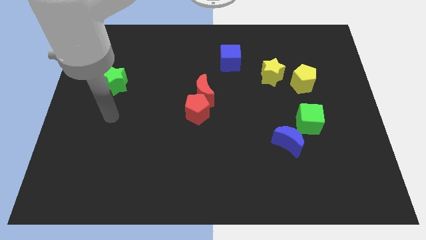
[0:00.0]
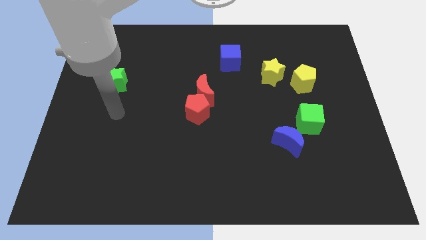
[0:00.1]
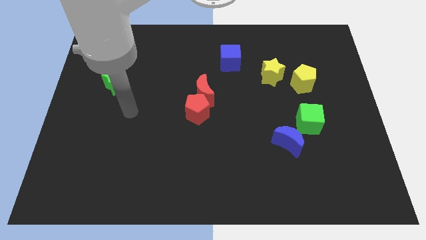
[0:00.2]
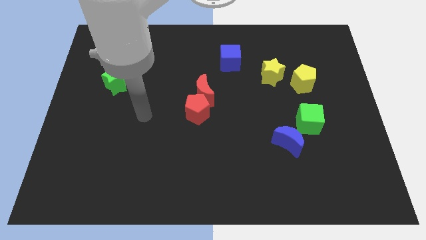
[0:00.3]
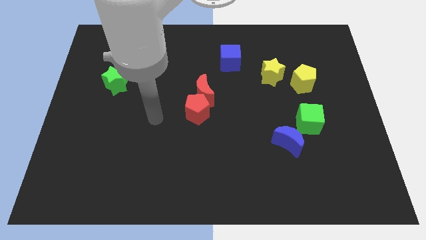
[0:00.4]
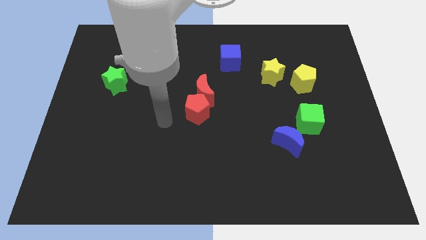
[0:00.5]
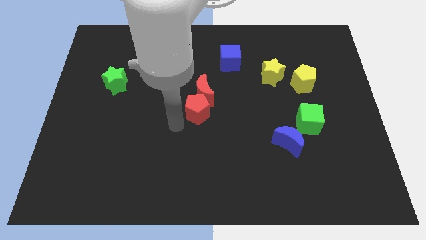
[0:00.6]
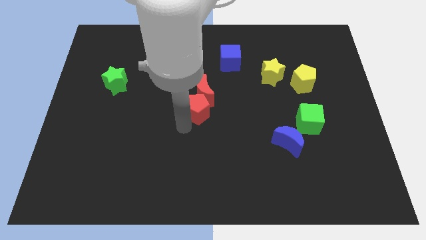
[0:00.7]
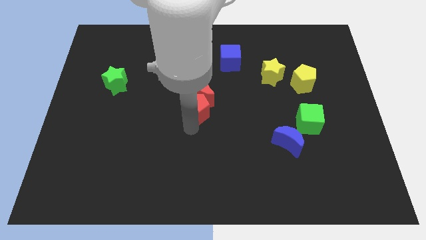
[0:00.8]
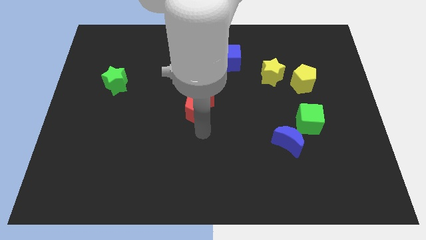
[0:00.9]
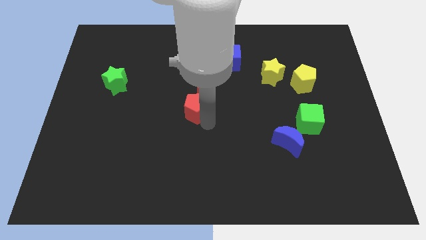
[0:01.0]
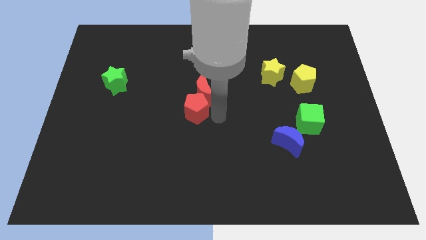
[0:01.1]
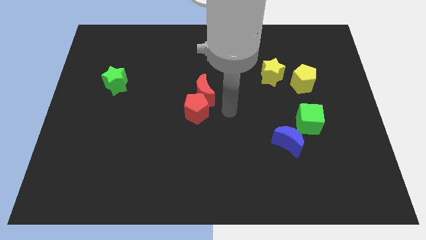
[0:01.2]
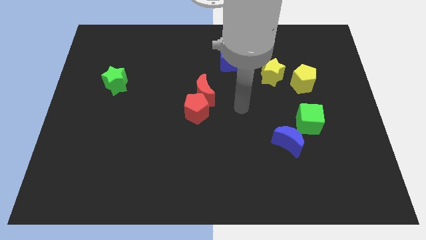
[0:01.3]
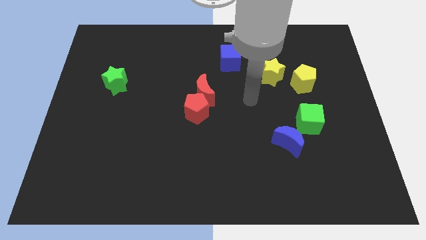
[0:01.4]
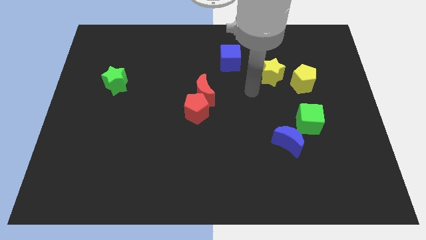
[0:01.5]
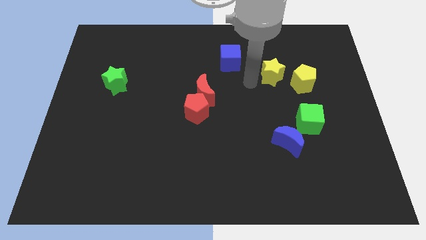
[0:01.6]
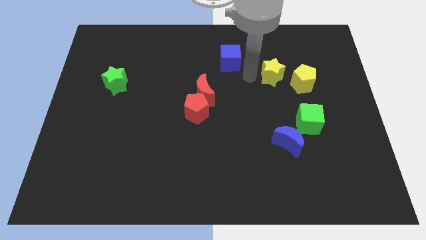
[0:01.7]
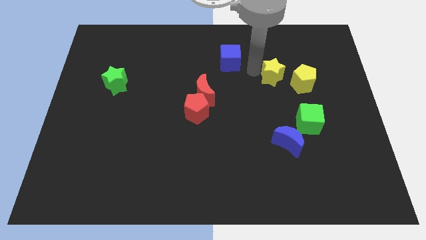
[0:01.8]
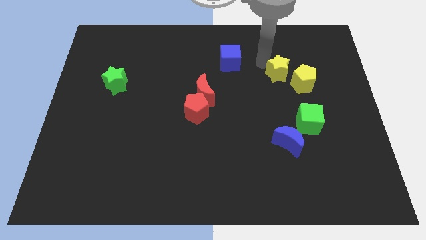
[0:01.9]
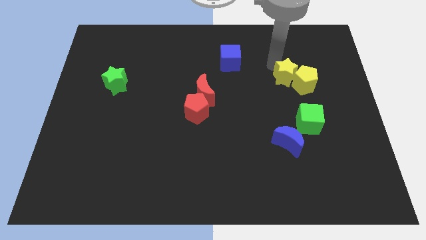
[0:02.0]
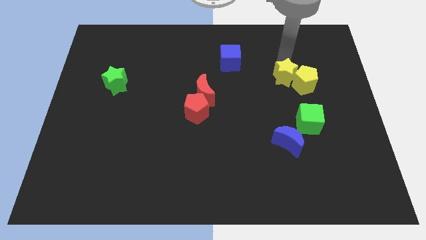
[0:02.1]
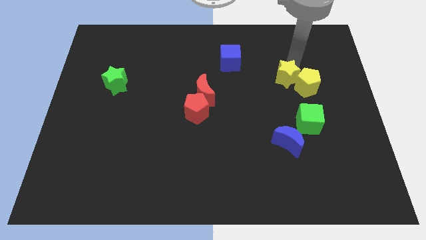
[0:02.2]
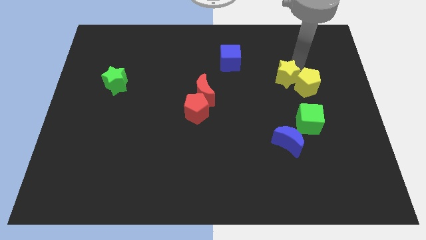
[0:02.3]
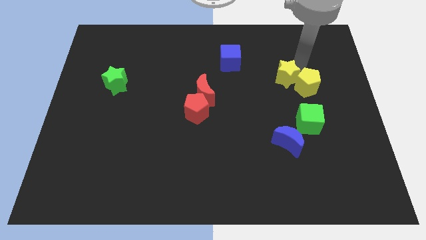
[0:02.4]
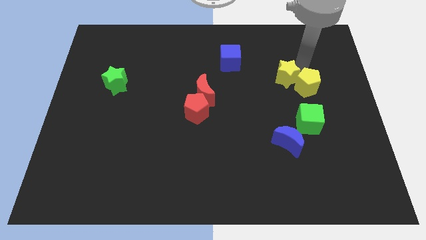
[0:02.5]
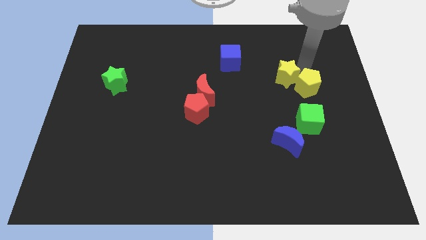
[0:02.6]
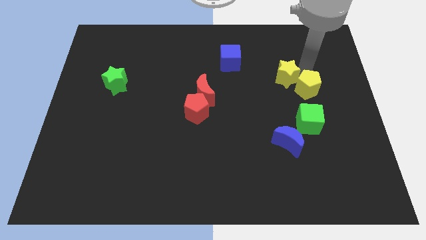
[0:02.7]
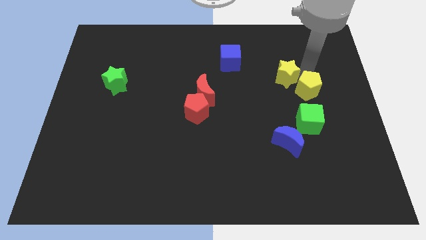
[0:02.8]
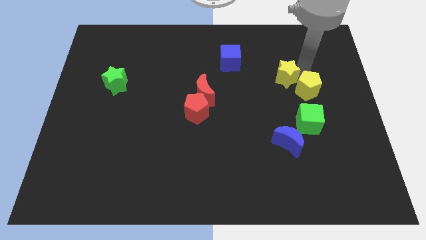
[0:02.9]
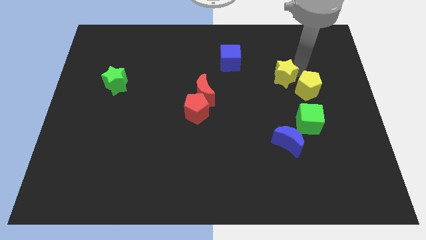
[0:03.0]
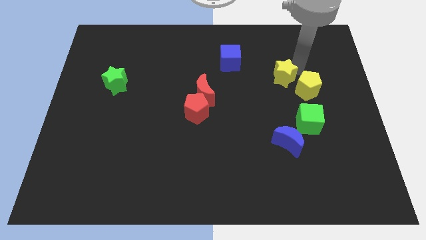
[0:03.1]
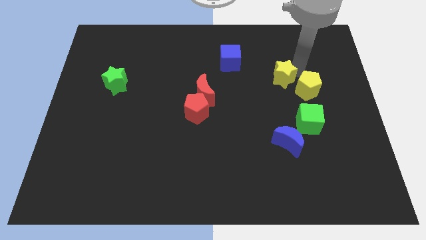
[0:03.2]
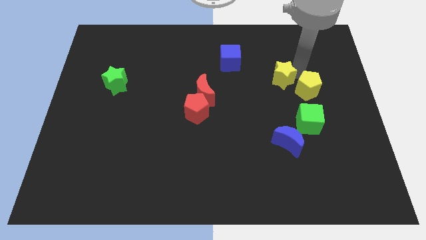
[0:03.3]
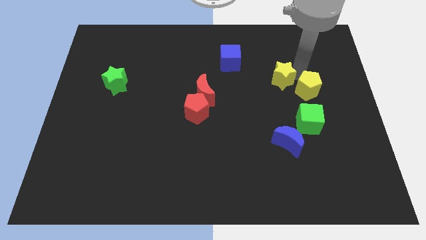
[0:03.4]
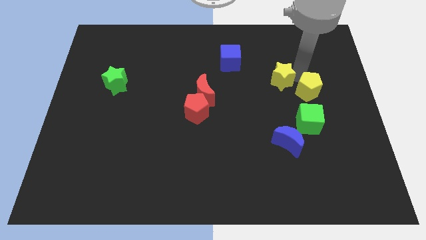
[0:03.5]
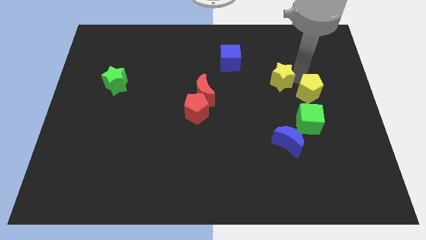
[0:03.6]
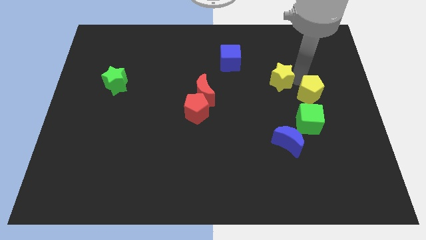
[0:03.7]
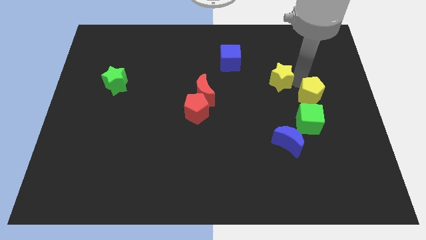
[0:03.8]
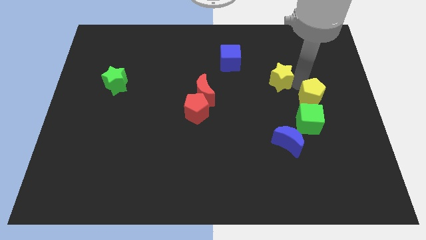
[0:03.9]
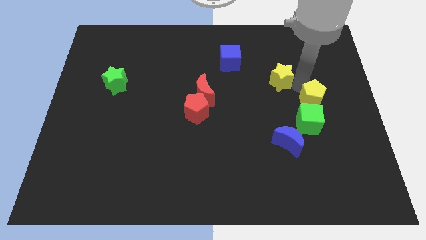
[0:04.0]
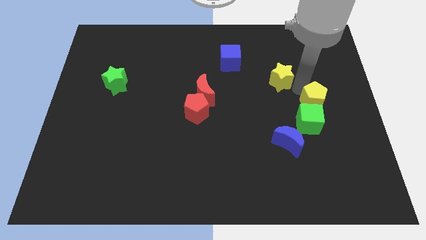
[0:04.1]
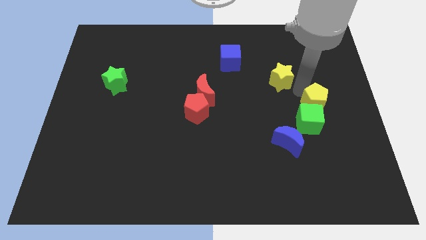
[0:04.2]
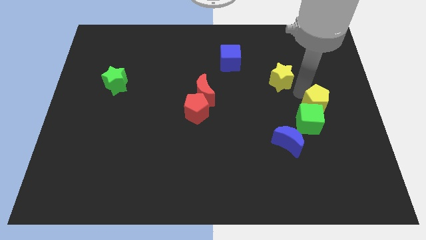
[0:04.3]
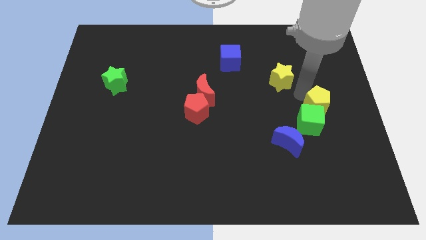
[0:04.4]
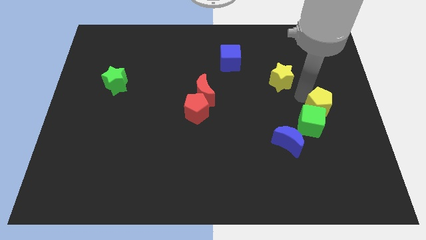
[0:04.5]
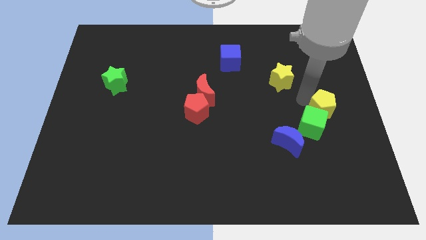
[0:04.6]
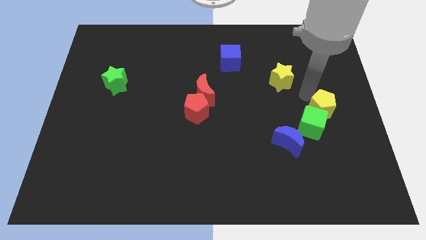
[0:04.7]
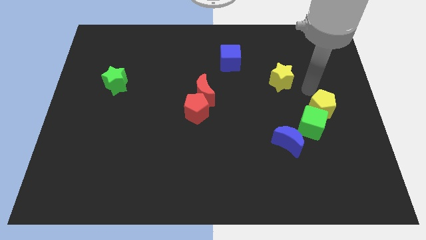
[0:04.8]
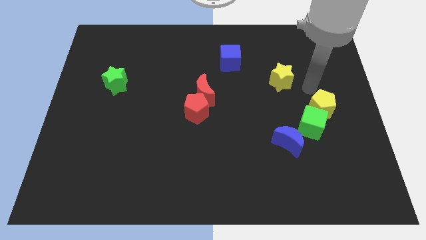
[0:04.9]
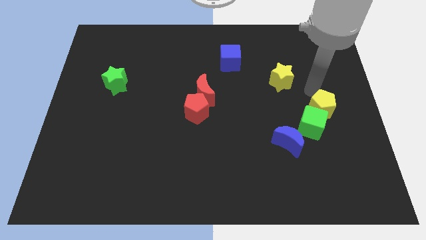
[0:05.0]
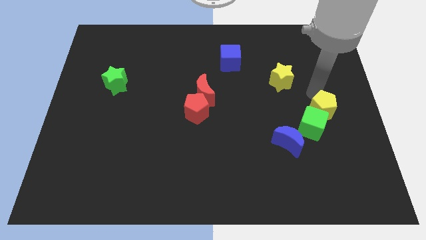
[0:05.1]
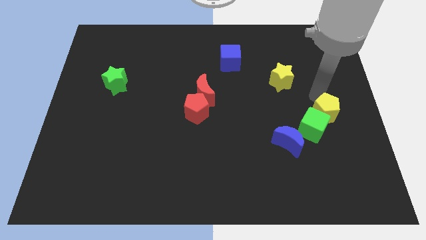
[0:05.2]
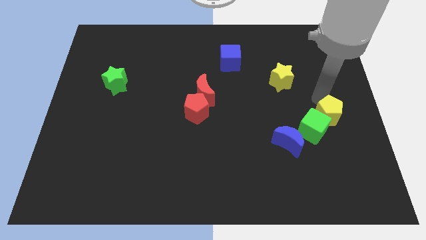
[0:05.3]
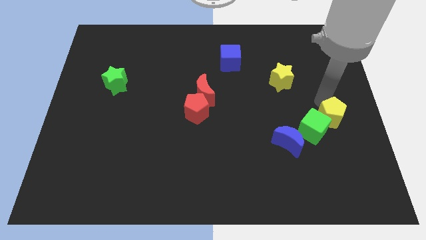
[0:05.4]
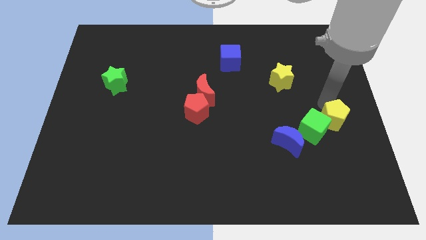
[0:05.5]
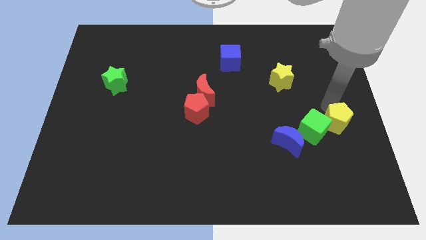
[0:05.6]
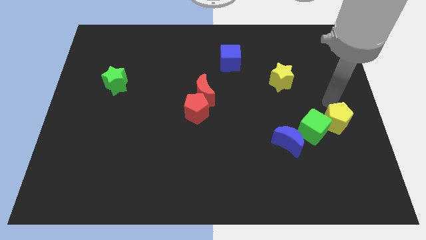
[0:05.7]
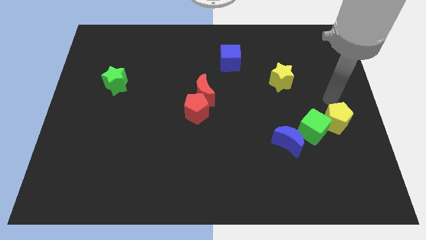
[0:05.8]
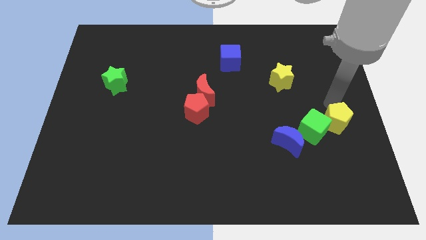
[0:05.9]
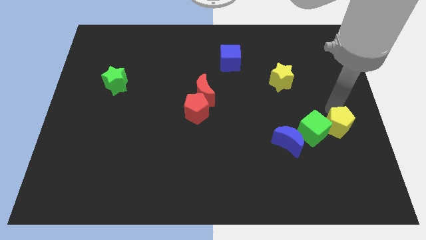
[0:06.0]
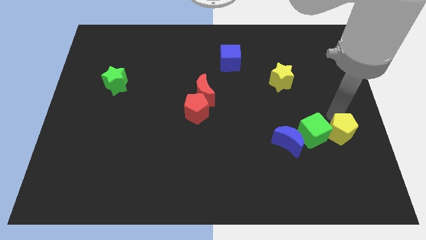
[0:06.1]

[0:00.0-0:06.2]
slide the yellow pentagon to the bottom right side of the green cube

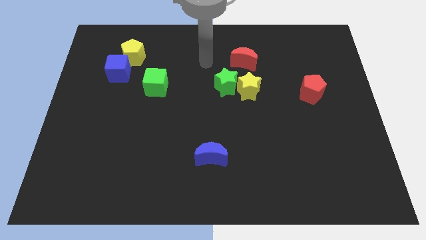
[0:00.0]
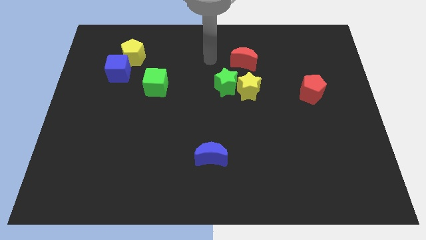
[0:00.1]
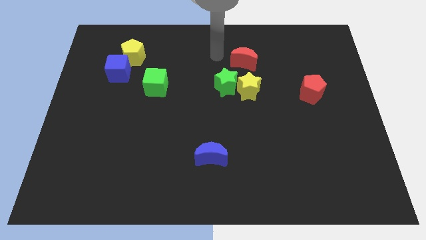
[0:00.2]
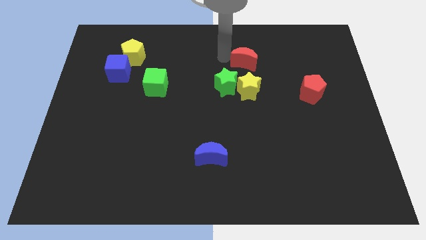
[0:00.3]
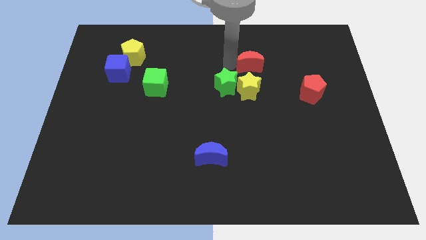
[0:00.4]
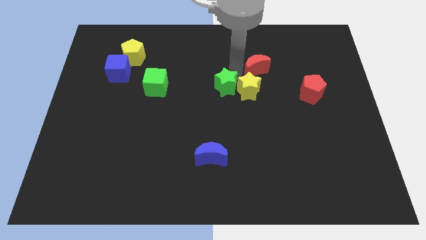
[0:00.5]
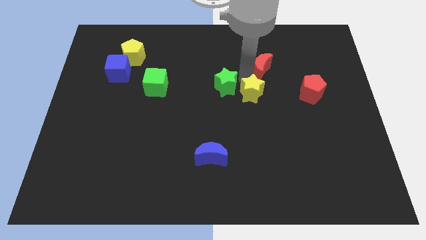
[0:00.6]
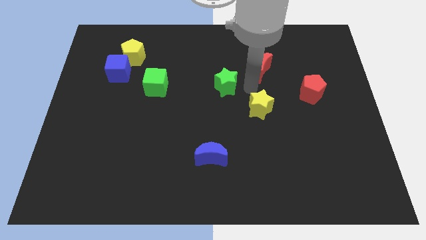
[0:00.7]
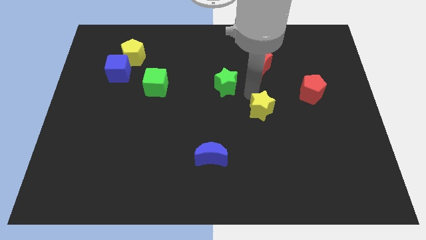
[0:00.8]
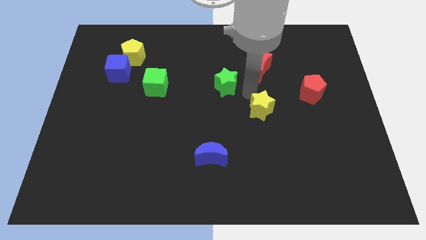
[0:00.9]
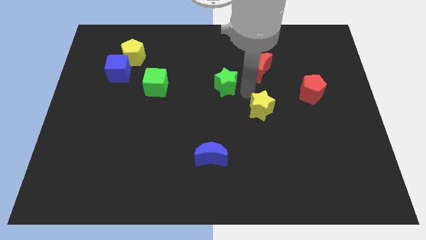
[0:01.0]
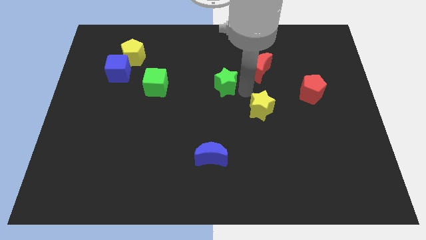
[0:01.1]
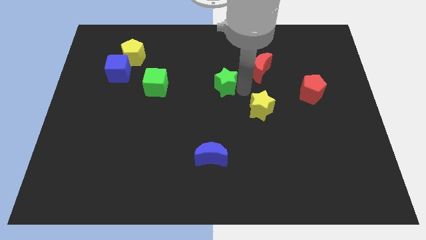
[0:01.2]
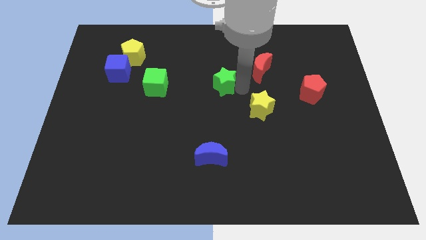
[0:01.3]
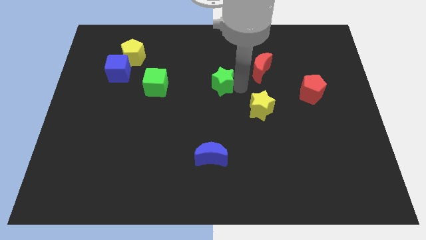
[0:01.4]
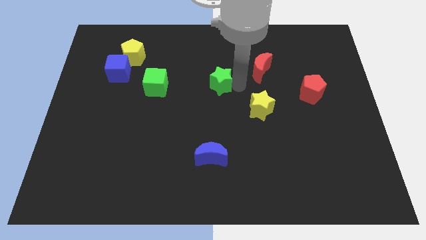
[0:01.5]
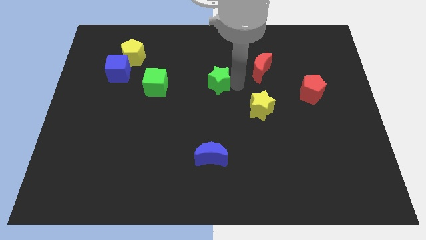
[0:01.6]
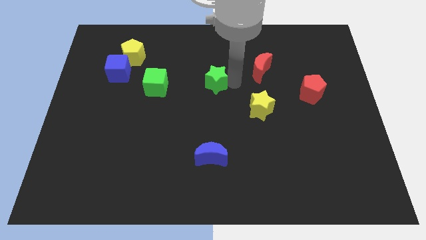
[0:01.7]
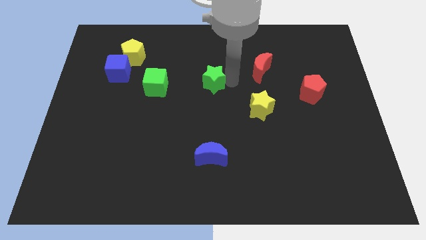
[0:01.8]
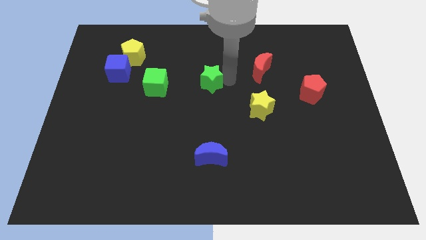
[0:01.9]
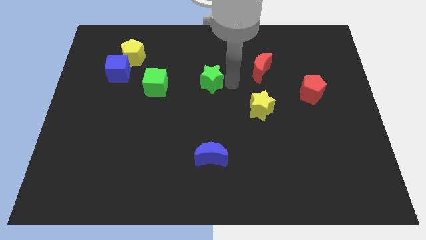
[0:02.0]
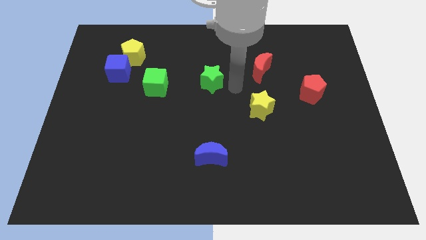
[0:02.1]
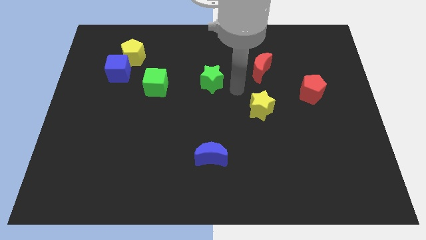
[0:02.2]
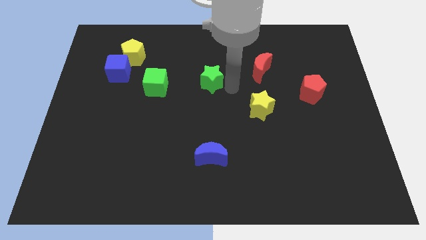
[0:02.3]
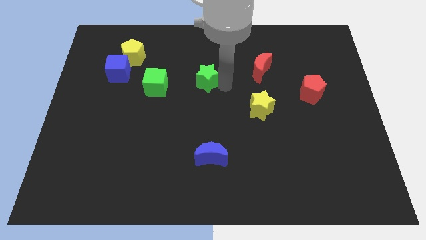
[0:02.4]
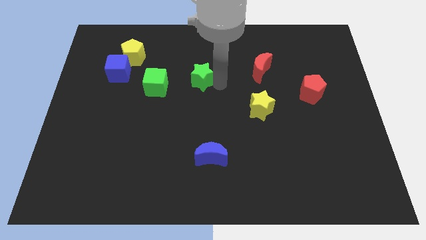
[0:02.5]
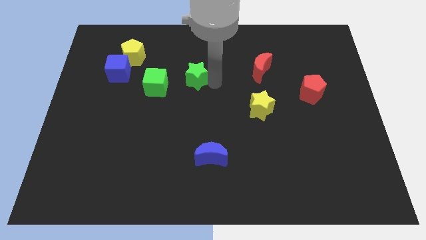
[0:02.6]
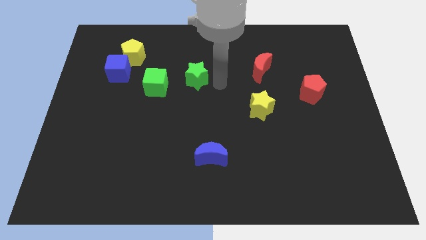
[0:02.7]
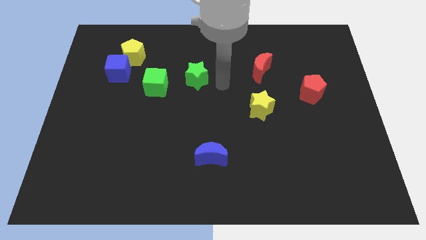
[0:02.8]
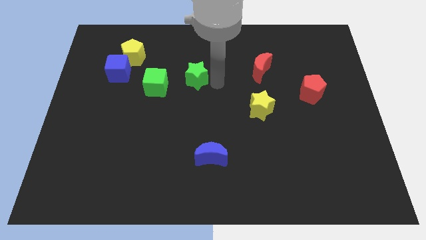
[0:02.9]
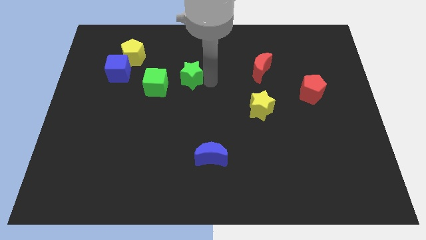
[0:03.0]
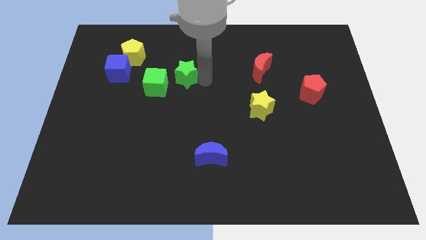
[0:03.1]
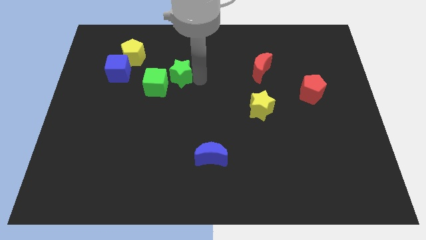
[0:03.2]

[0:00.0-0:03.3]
move the green star to the right side of the blue cube
